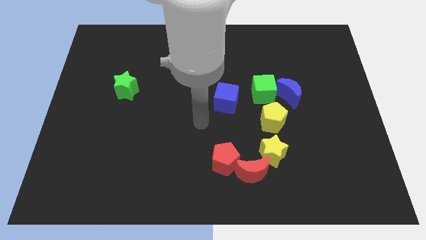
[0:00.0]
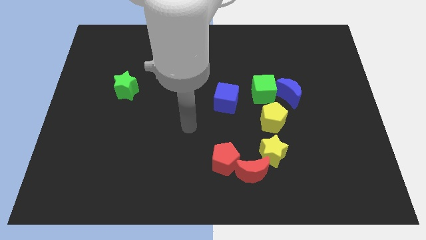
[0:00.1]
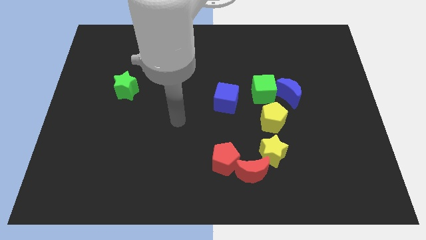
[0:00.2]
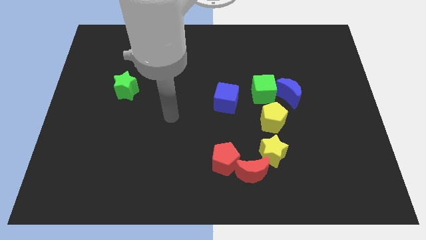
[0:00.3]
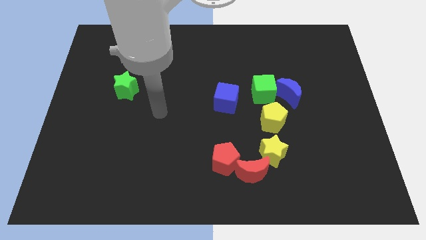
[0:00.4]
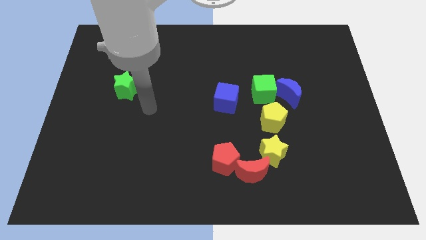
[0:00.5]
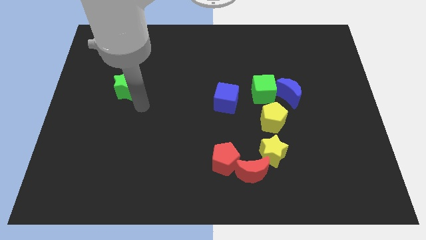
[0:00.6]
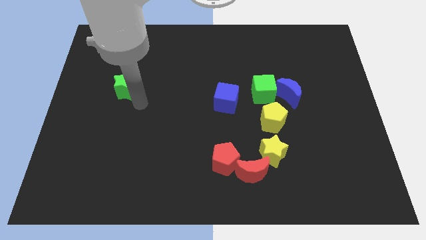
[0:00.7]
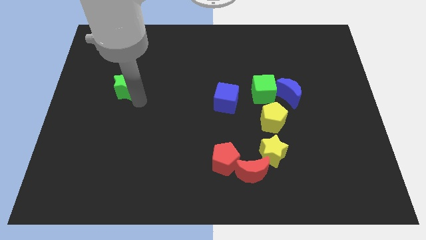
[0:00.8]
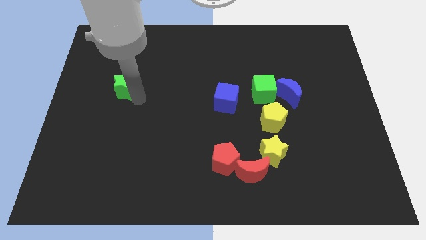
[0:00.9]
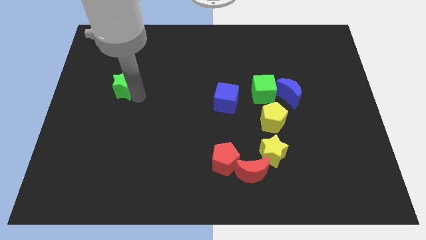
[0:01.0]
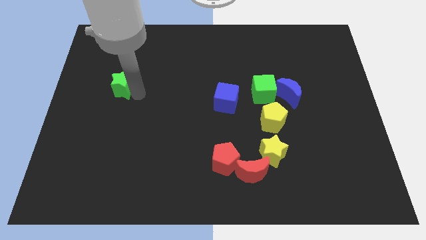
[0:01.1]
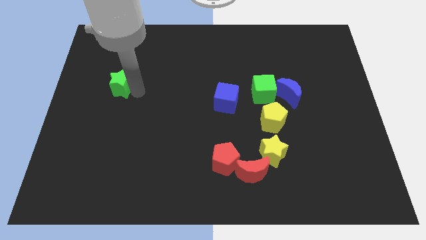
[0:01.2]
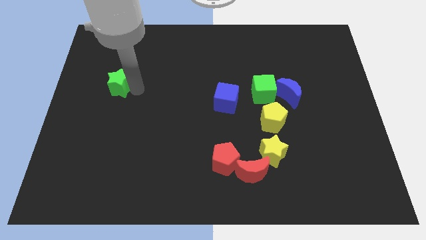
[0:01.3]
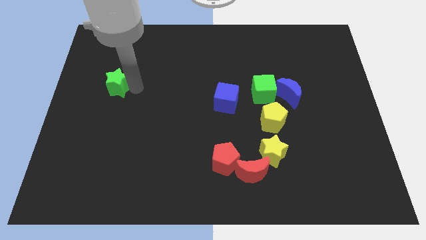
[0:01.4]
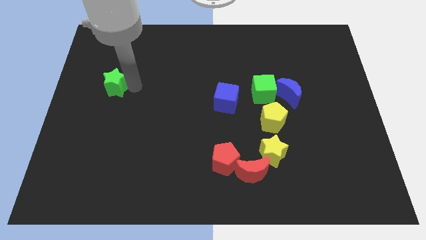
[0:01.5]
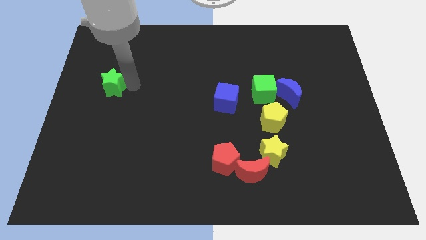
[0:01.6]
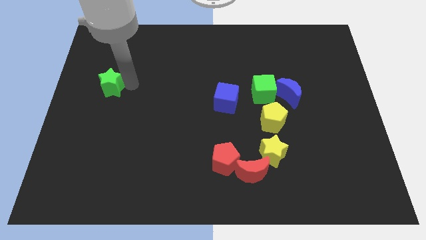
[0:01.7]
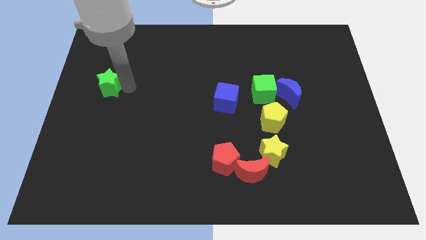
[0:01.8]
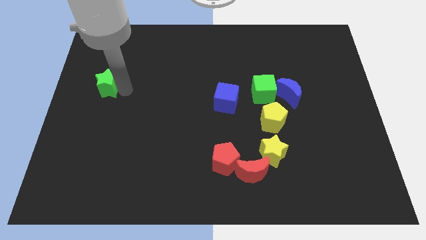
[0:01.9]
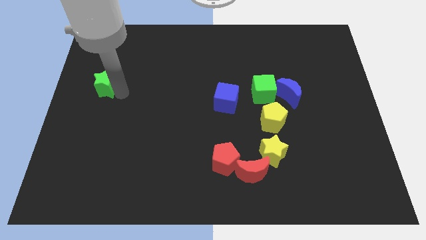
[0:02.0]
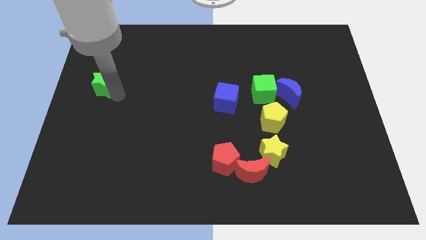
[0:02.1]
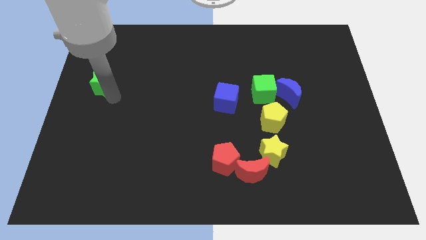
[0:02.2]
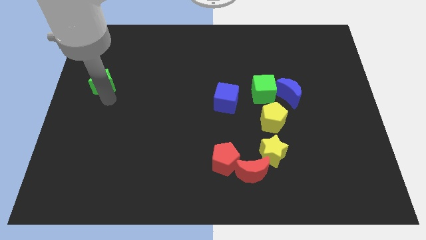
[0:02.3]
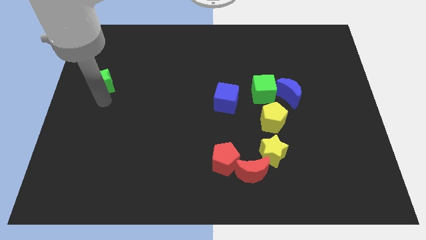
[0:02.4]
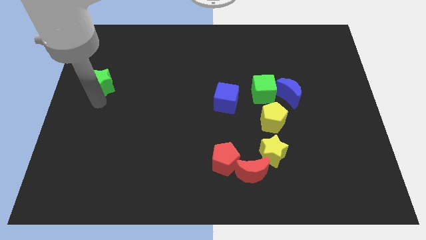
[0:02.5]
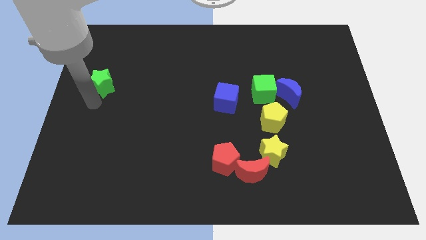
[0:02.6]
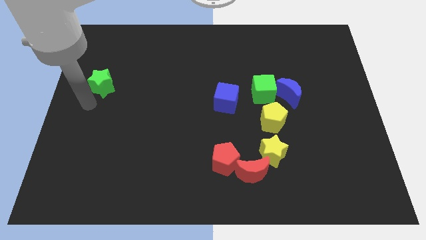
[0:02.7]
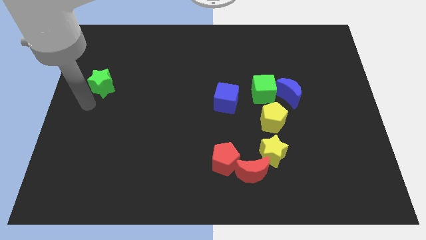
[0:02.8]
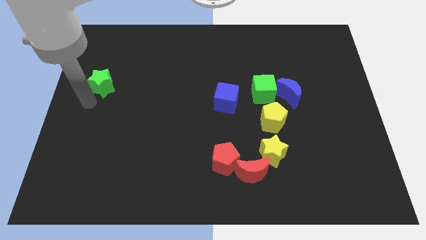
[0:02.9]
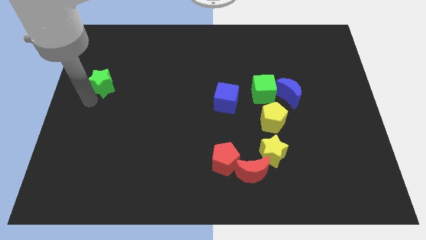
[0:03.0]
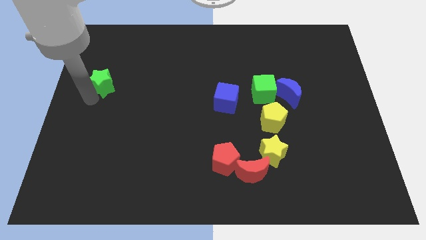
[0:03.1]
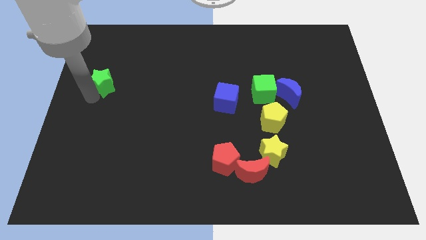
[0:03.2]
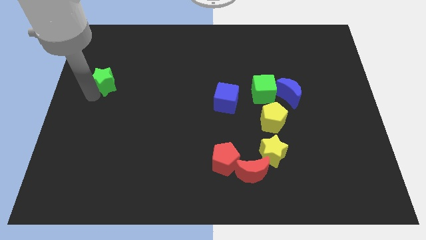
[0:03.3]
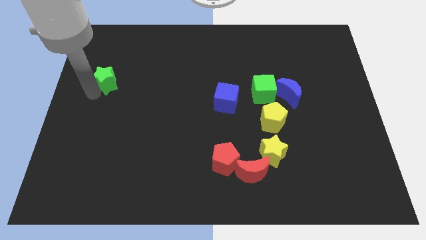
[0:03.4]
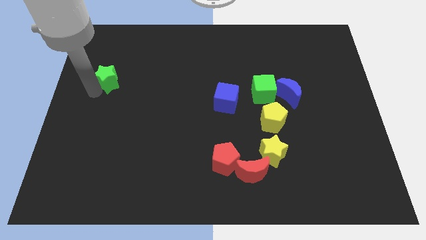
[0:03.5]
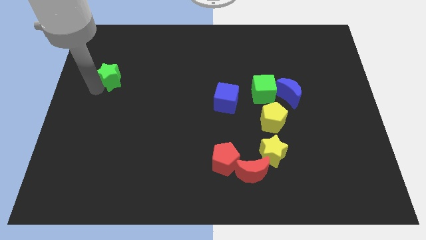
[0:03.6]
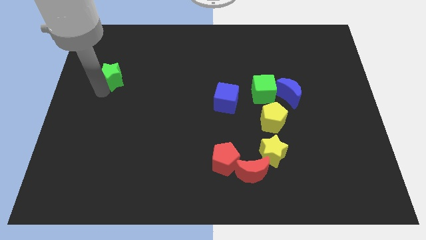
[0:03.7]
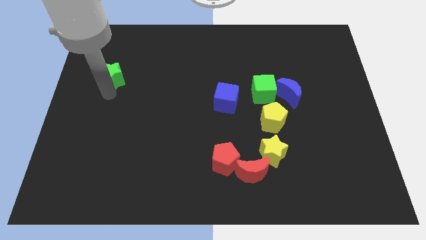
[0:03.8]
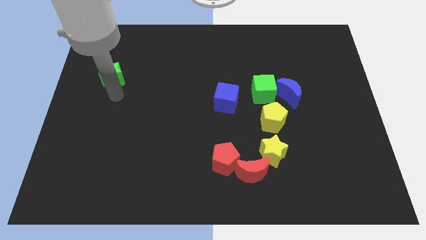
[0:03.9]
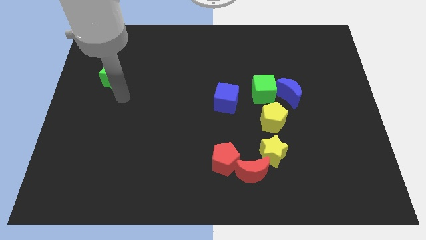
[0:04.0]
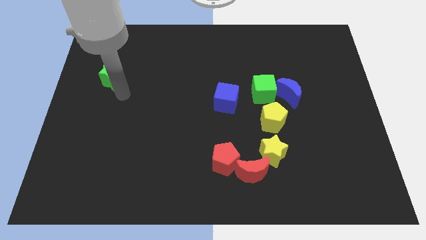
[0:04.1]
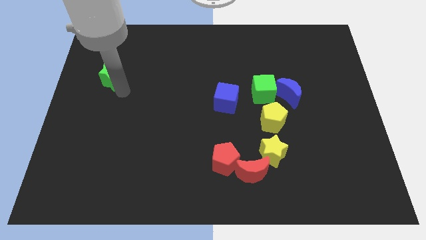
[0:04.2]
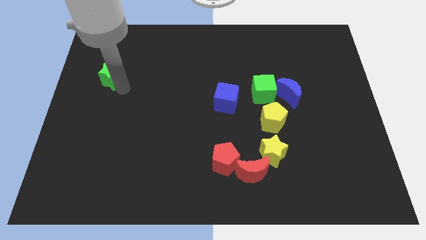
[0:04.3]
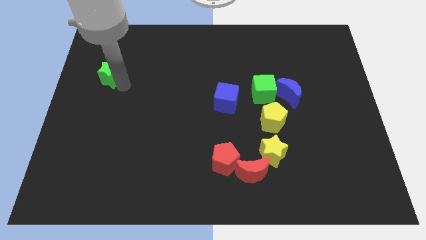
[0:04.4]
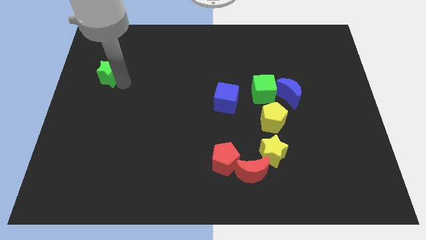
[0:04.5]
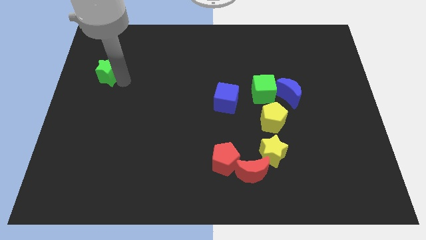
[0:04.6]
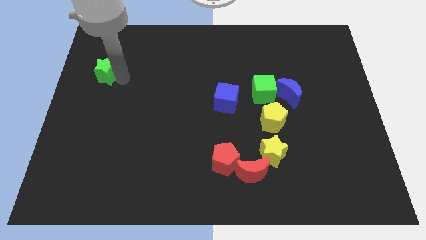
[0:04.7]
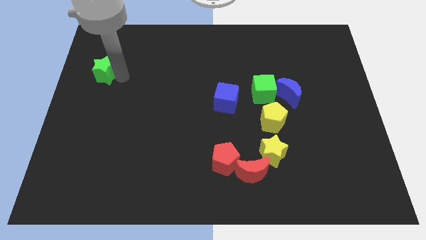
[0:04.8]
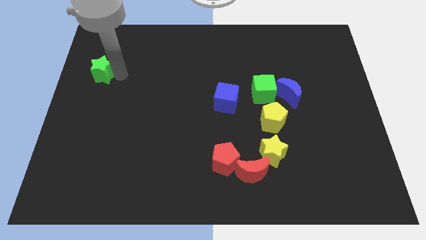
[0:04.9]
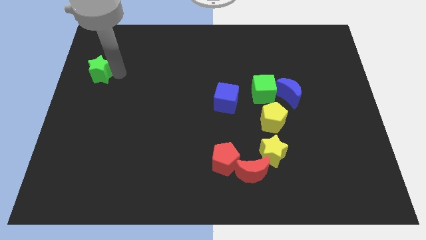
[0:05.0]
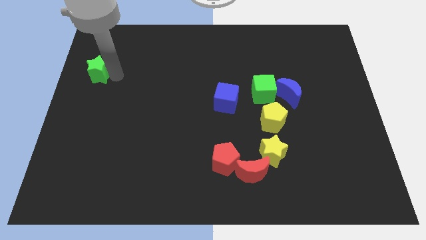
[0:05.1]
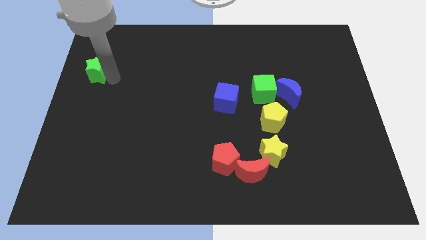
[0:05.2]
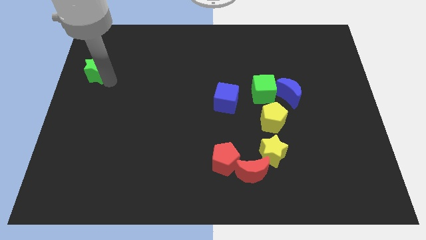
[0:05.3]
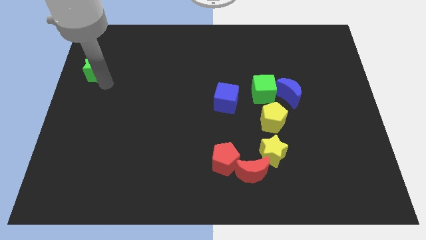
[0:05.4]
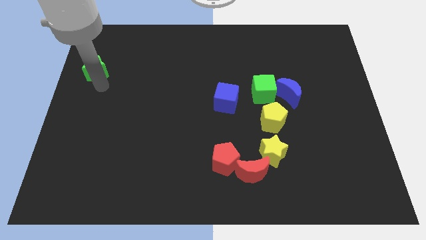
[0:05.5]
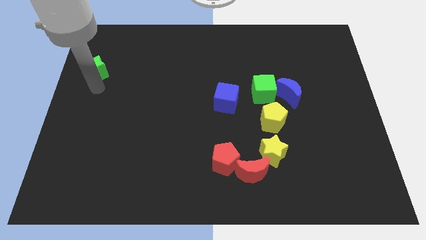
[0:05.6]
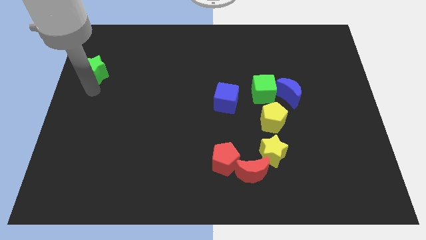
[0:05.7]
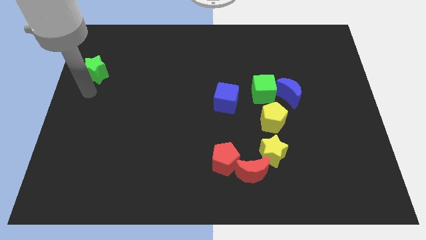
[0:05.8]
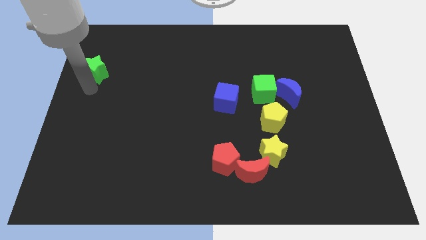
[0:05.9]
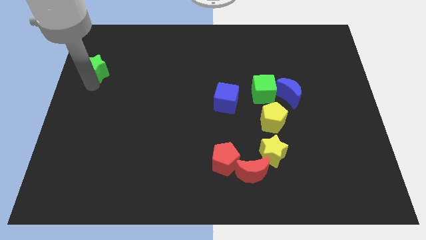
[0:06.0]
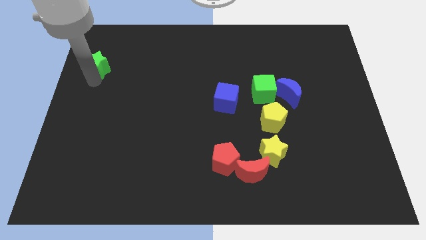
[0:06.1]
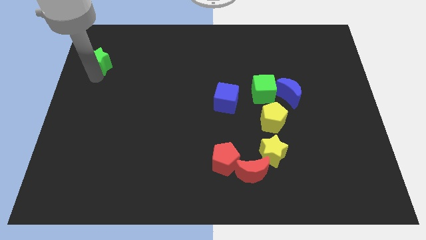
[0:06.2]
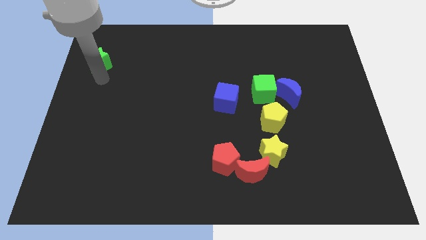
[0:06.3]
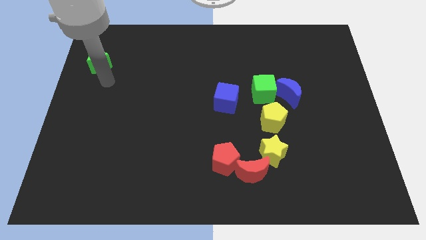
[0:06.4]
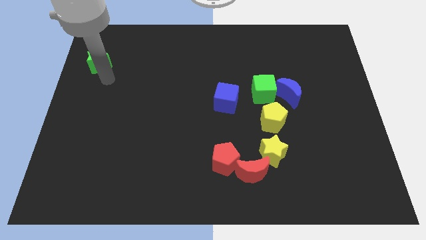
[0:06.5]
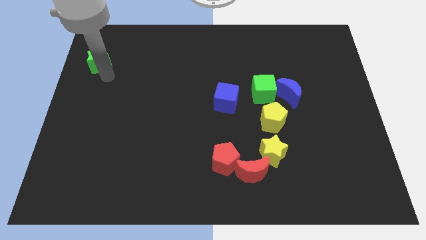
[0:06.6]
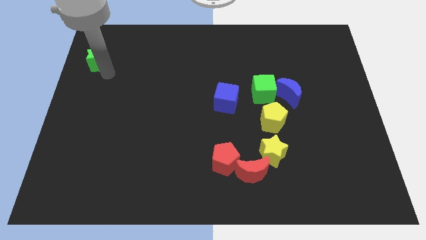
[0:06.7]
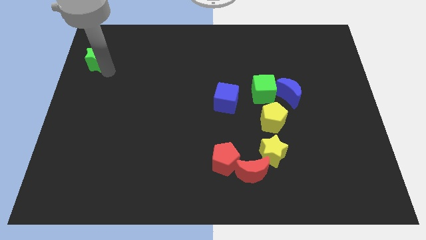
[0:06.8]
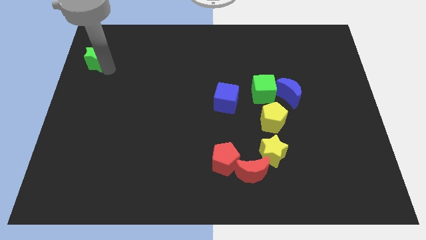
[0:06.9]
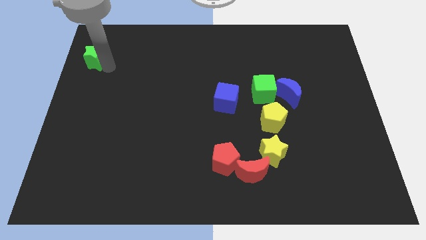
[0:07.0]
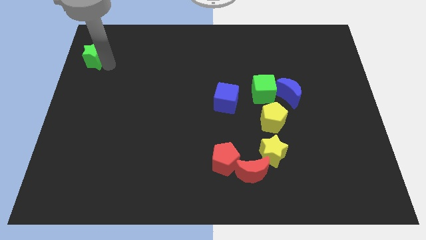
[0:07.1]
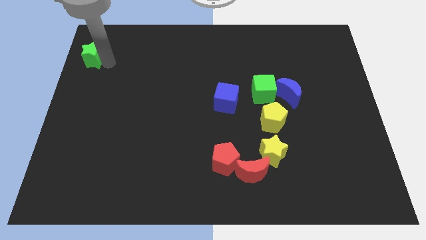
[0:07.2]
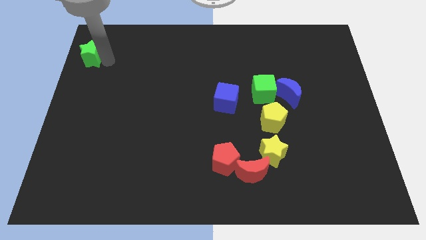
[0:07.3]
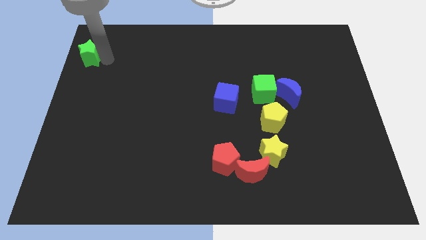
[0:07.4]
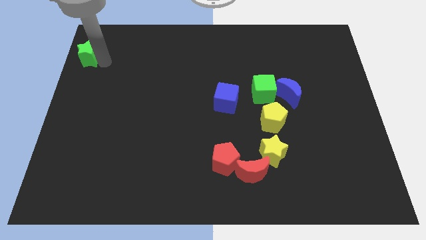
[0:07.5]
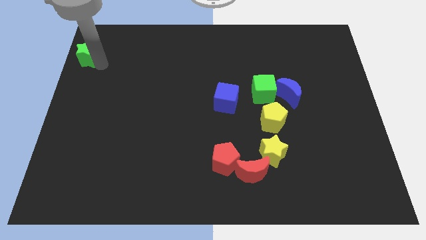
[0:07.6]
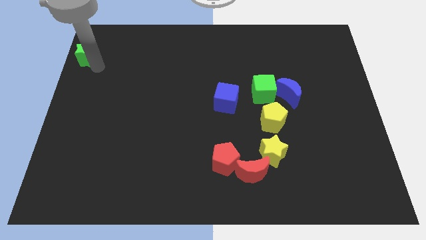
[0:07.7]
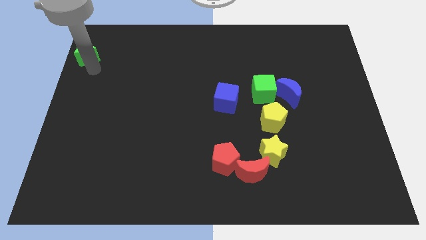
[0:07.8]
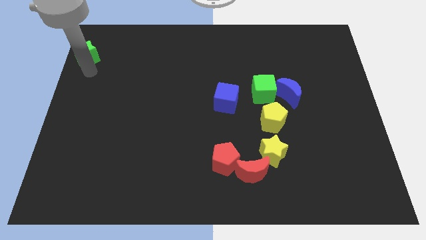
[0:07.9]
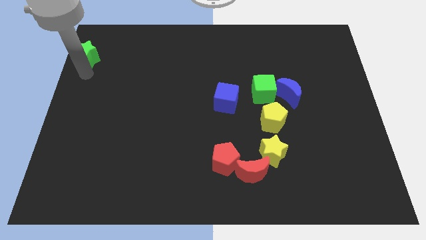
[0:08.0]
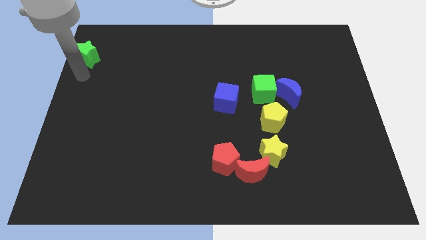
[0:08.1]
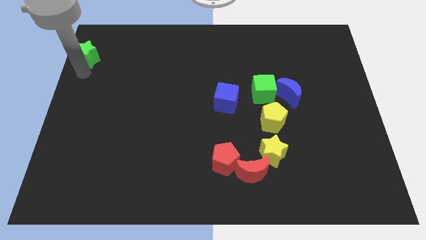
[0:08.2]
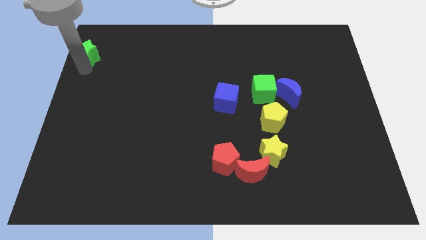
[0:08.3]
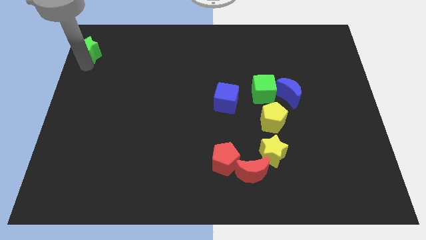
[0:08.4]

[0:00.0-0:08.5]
push the green star to the top left
